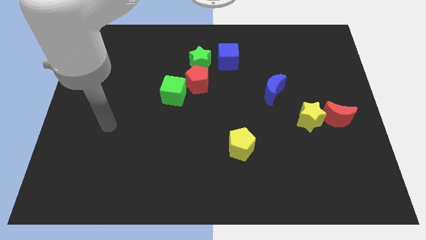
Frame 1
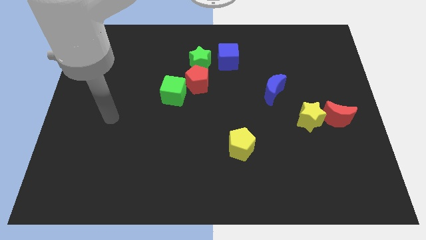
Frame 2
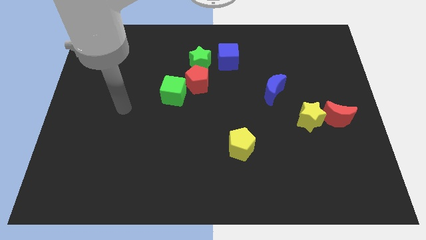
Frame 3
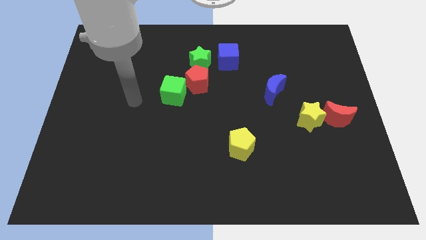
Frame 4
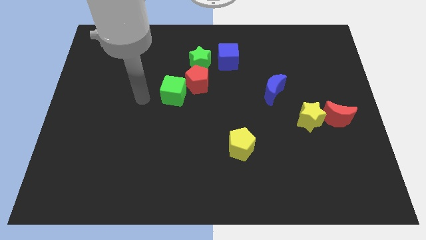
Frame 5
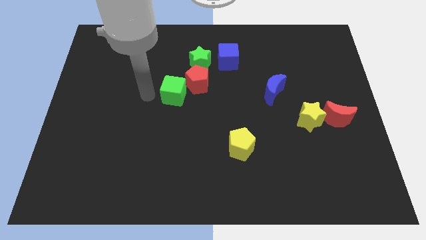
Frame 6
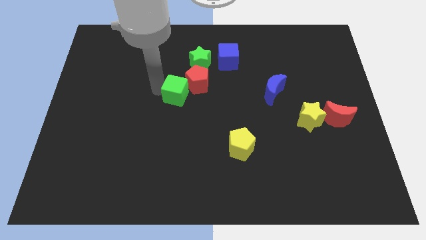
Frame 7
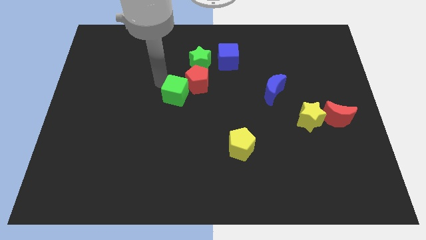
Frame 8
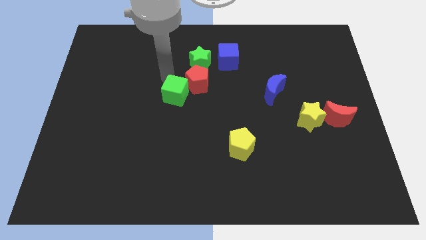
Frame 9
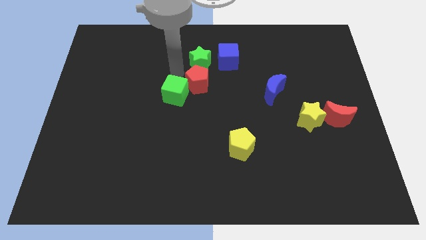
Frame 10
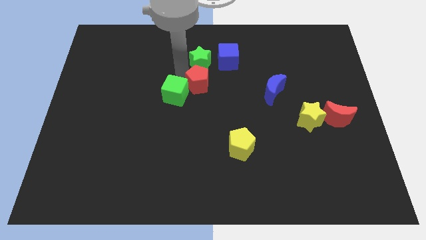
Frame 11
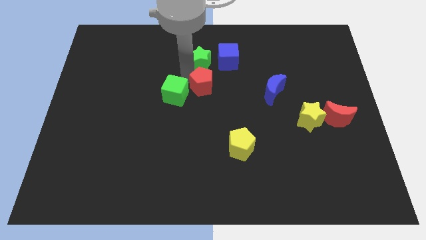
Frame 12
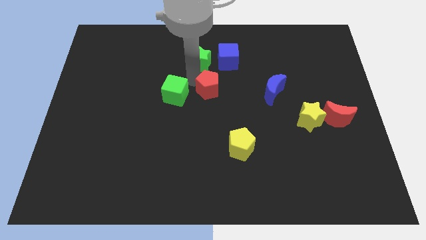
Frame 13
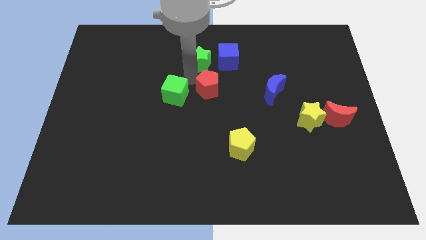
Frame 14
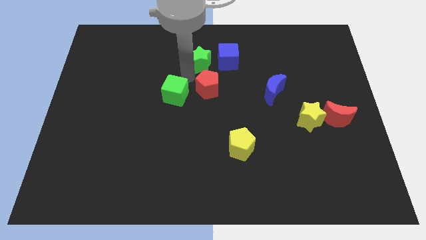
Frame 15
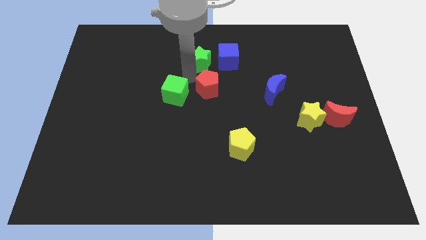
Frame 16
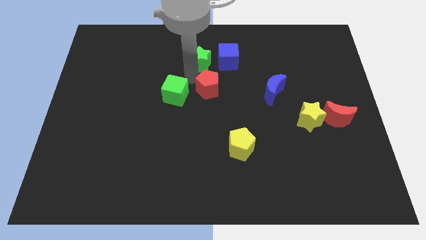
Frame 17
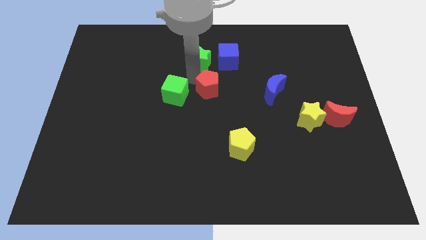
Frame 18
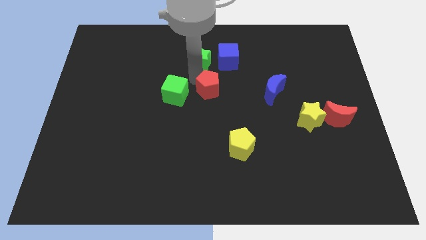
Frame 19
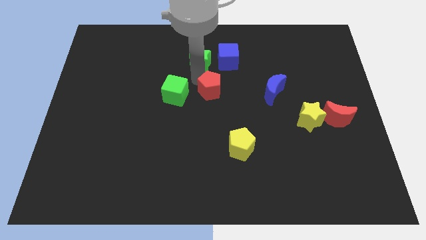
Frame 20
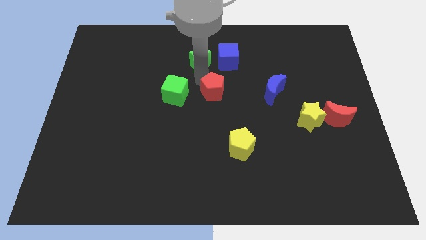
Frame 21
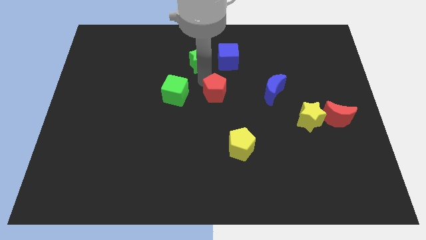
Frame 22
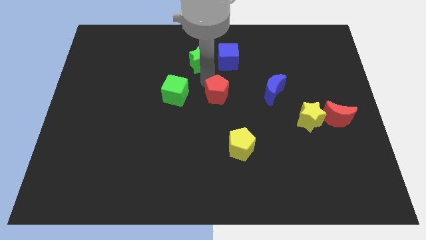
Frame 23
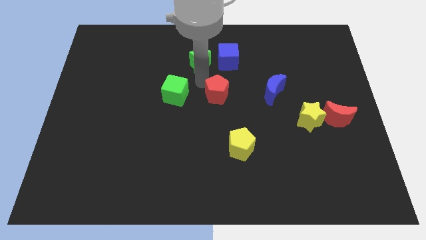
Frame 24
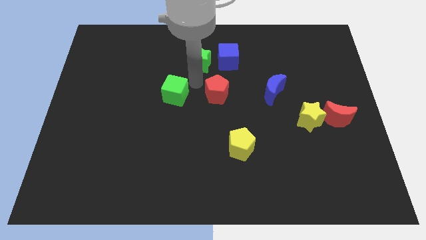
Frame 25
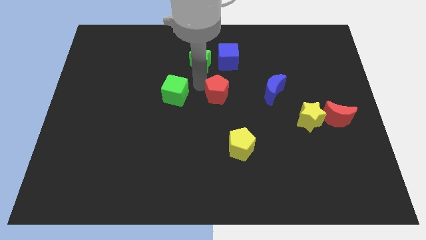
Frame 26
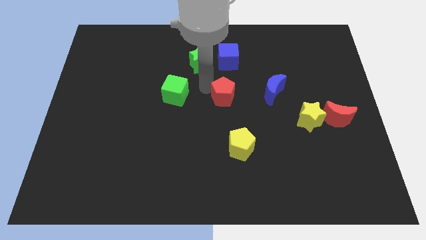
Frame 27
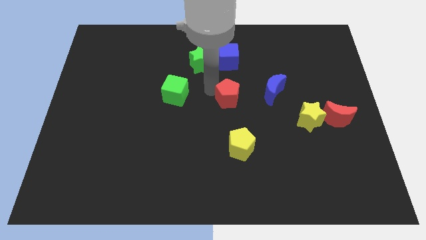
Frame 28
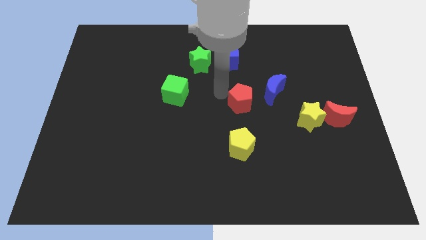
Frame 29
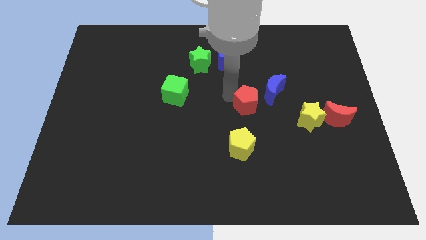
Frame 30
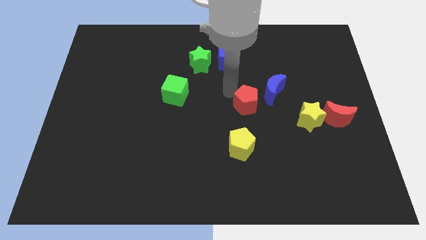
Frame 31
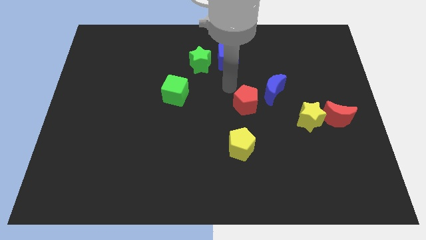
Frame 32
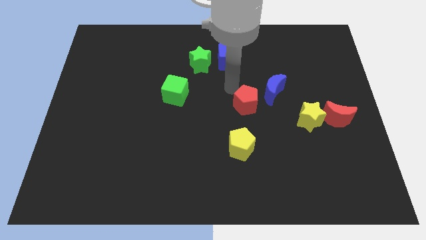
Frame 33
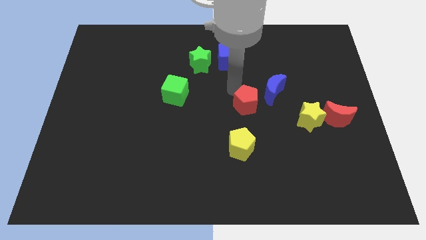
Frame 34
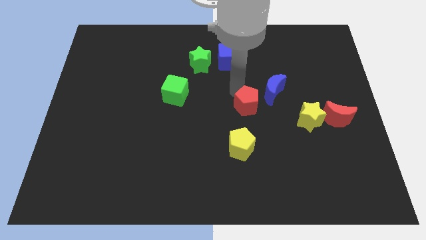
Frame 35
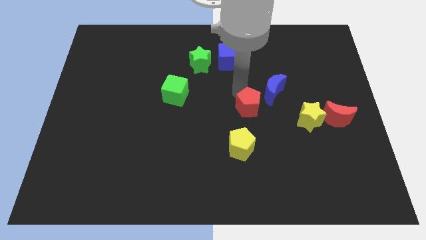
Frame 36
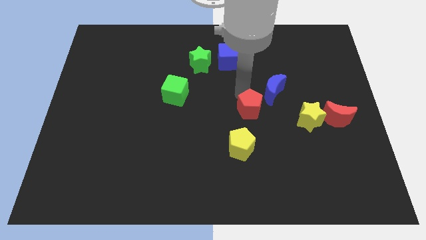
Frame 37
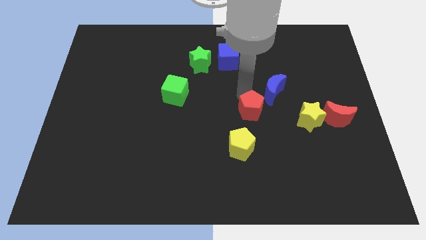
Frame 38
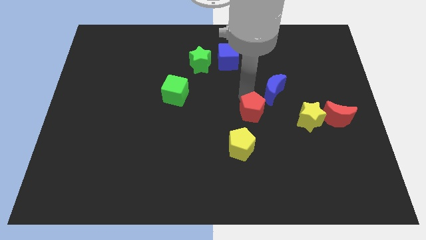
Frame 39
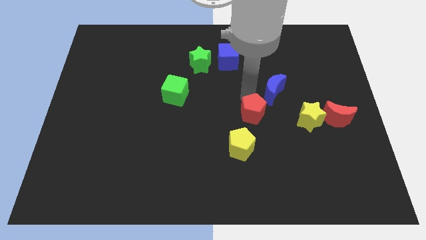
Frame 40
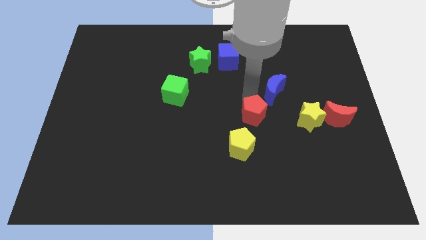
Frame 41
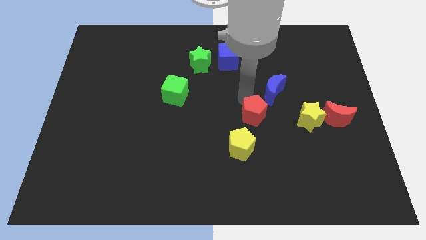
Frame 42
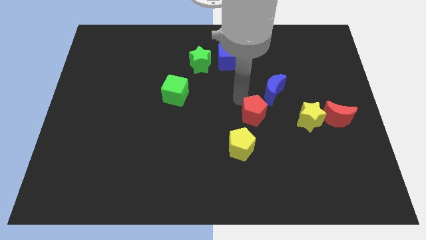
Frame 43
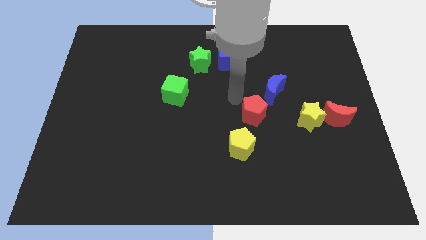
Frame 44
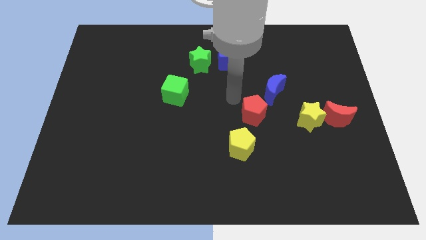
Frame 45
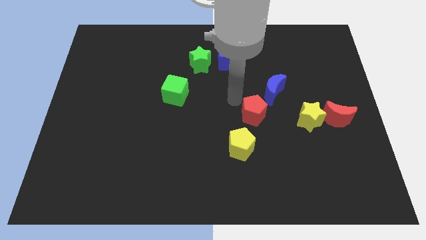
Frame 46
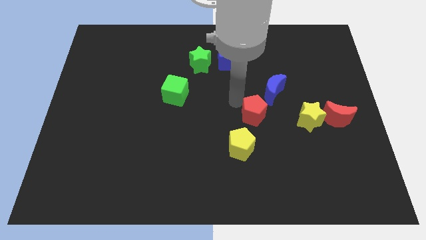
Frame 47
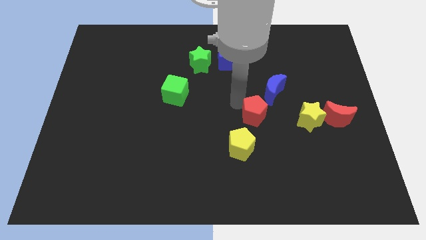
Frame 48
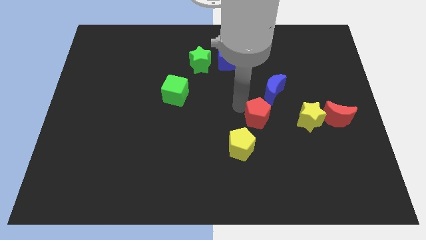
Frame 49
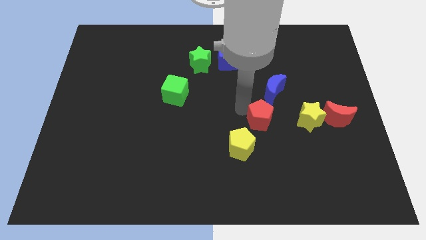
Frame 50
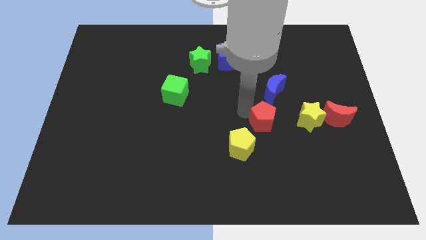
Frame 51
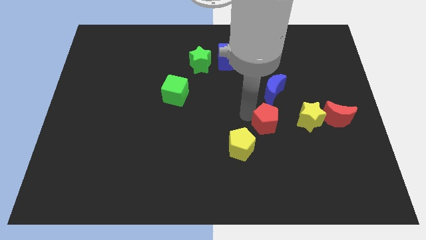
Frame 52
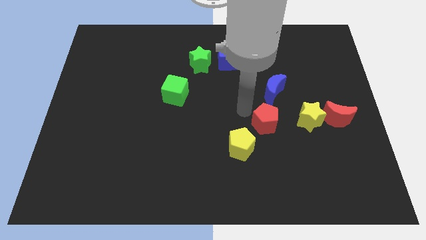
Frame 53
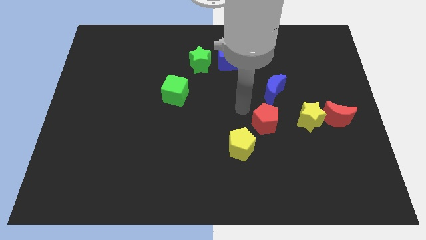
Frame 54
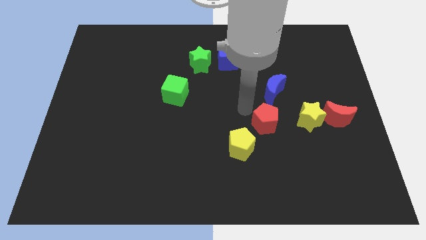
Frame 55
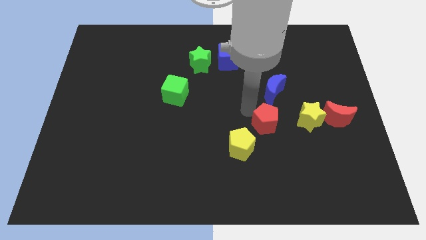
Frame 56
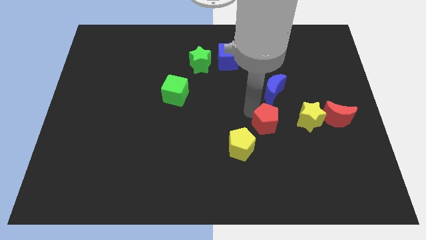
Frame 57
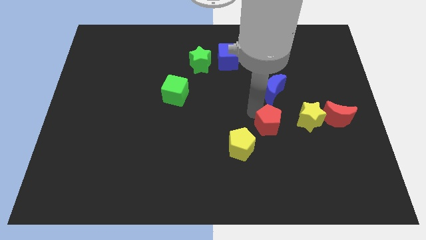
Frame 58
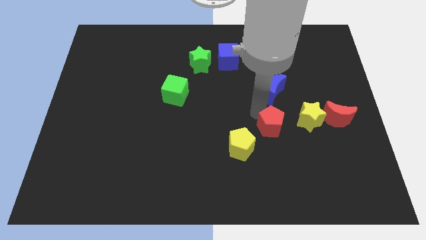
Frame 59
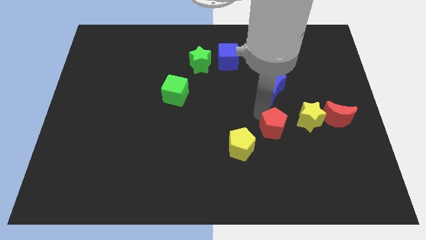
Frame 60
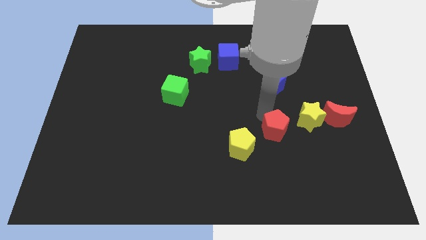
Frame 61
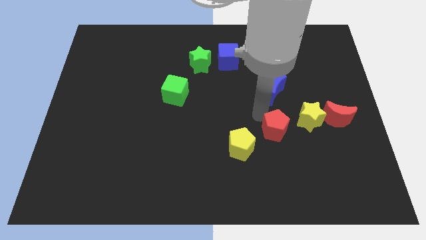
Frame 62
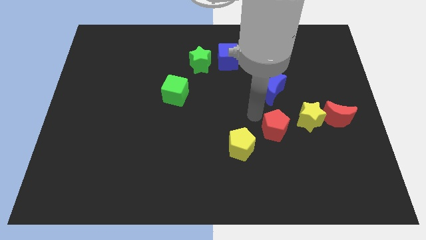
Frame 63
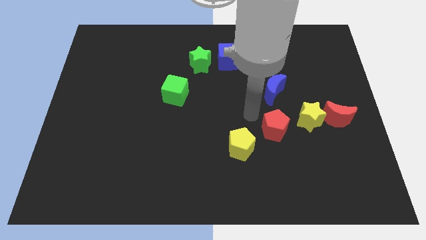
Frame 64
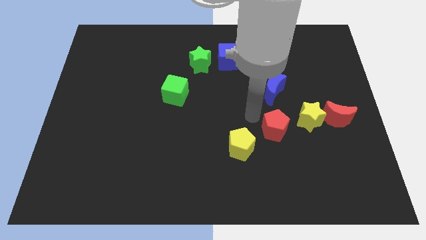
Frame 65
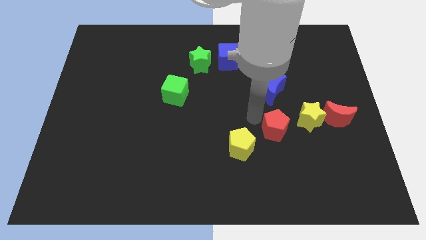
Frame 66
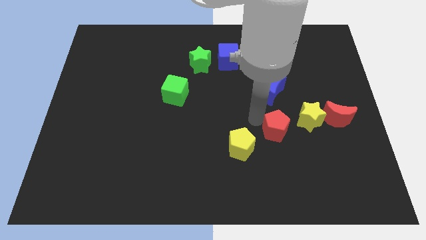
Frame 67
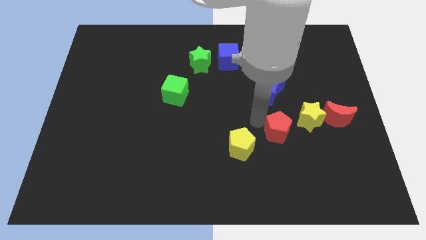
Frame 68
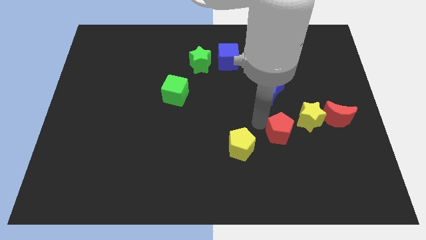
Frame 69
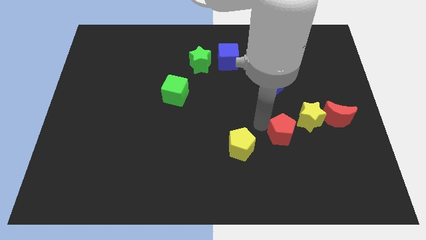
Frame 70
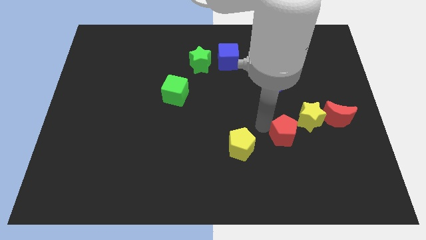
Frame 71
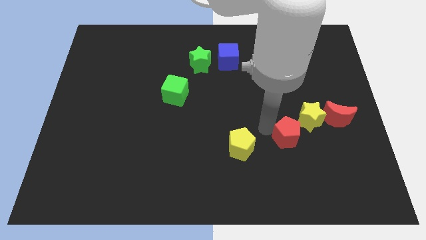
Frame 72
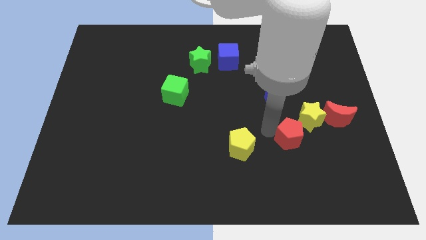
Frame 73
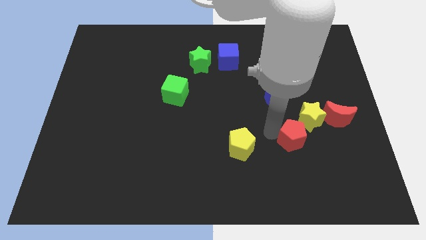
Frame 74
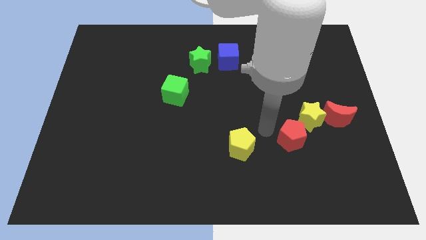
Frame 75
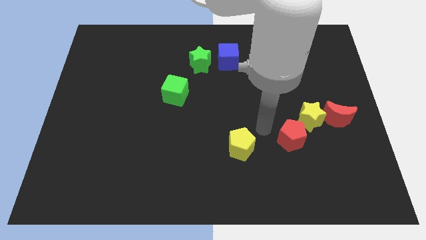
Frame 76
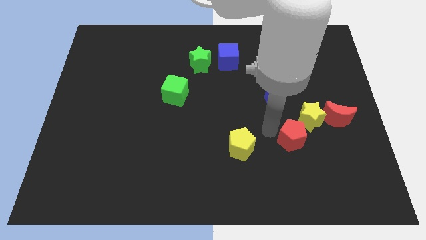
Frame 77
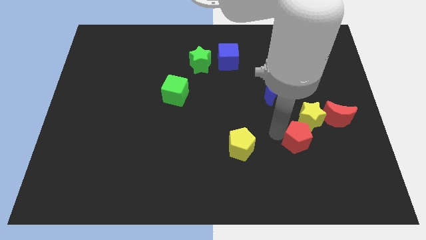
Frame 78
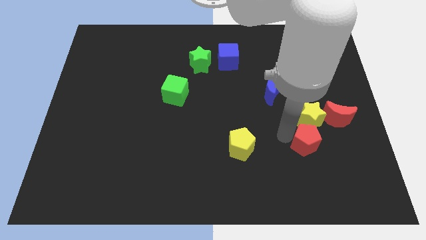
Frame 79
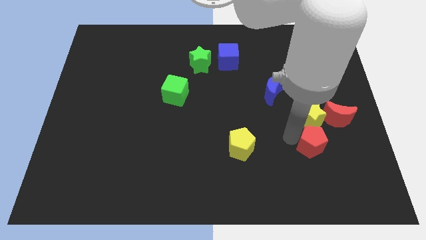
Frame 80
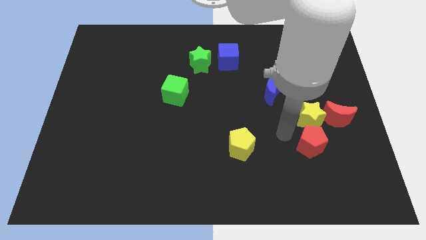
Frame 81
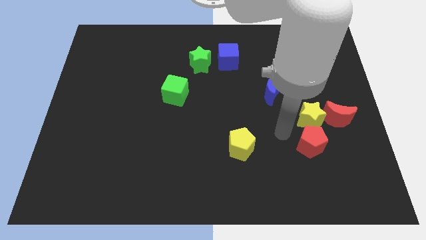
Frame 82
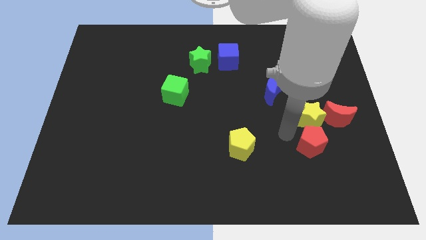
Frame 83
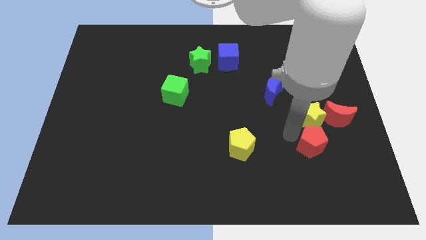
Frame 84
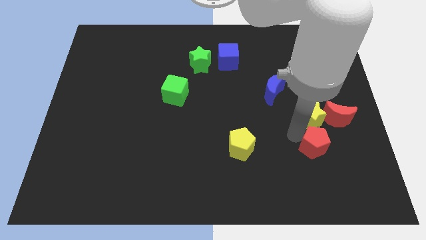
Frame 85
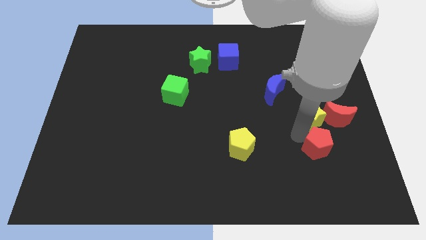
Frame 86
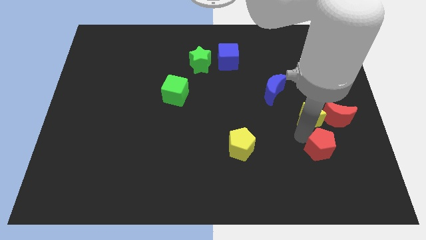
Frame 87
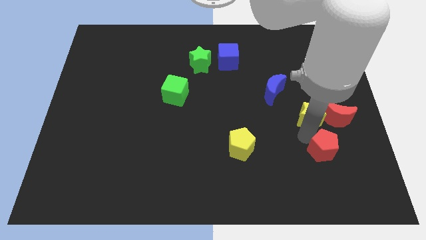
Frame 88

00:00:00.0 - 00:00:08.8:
put the red pentagon below the red moon
